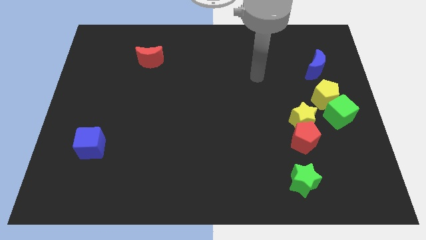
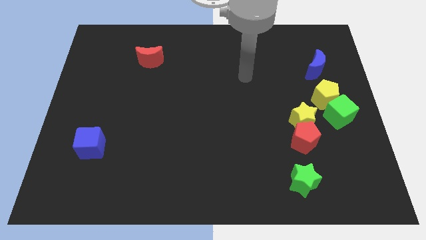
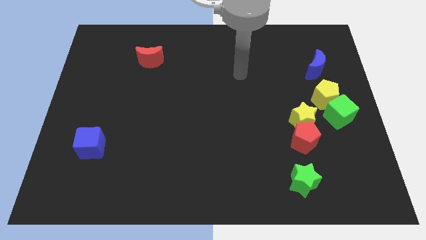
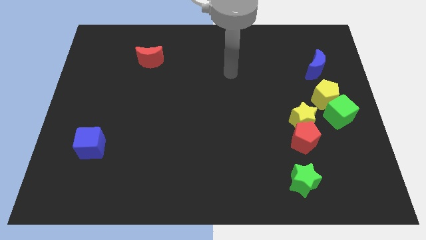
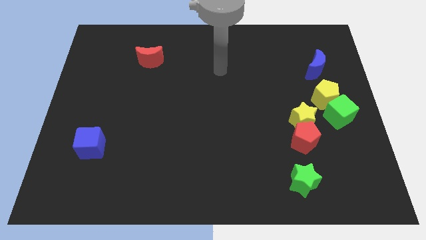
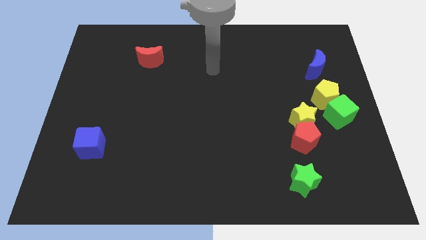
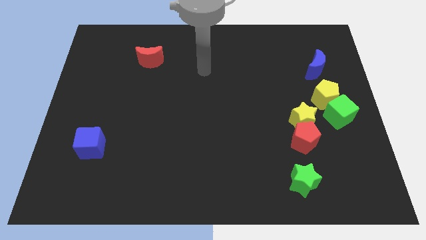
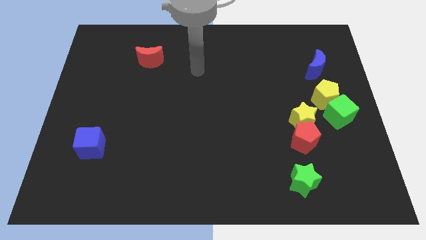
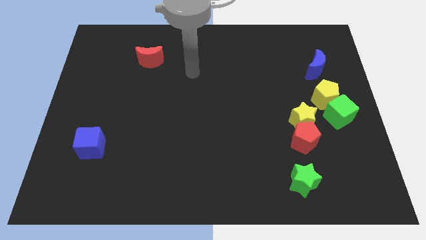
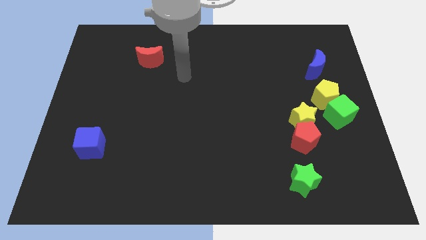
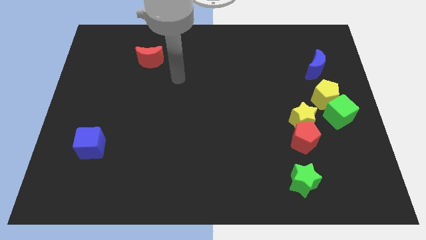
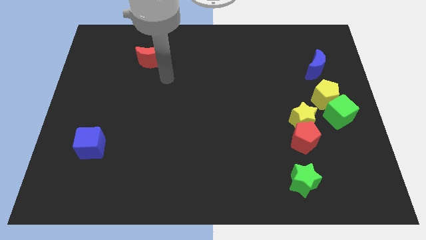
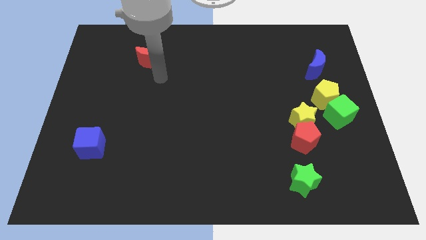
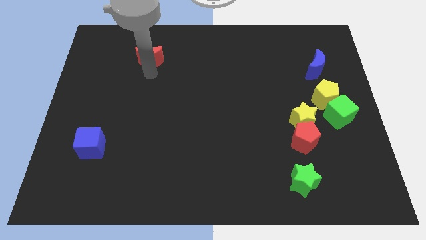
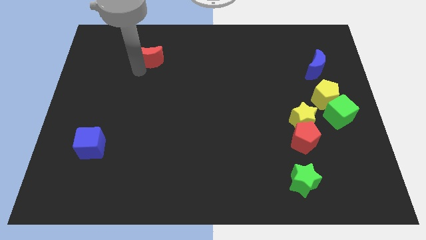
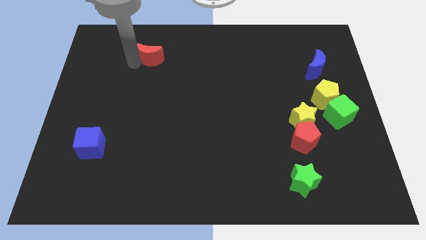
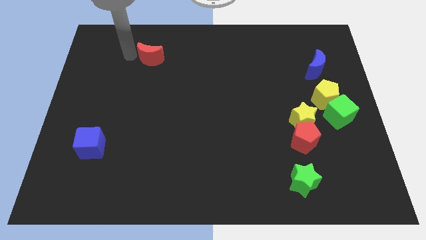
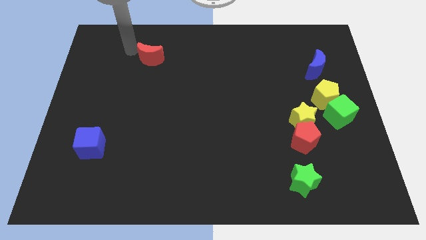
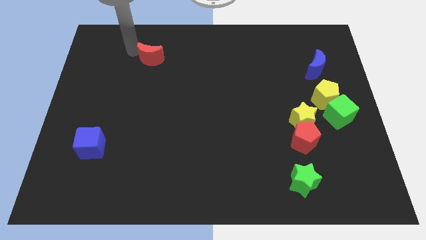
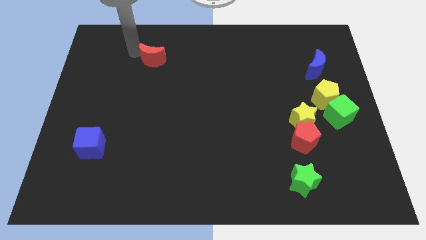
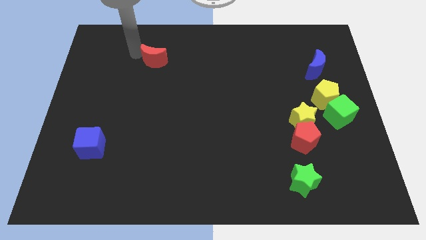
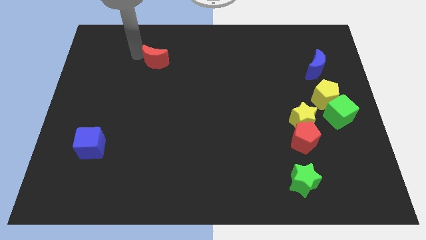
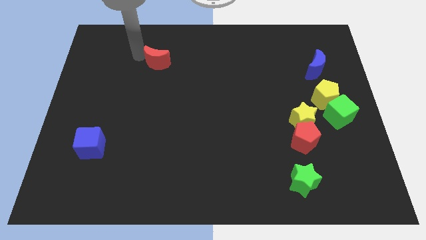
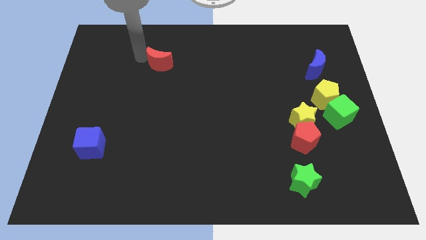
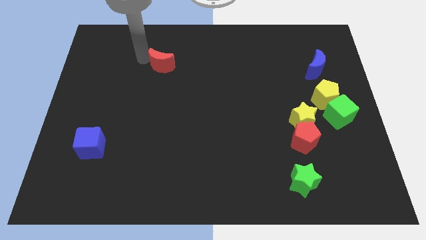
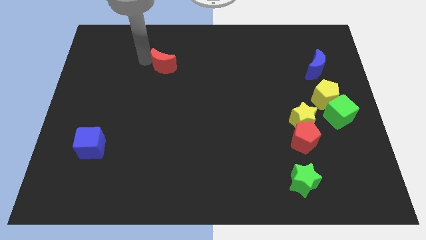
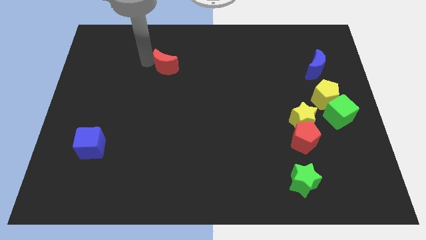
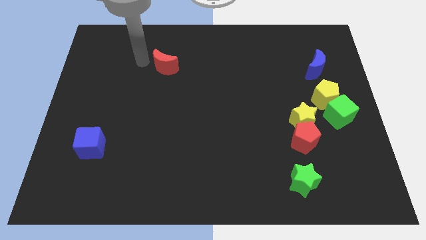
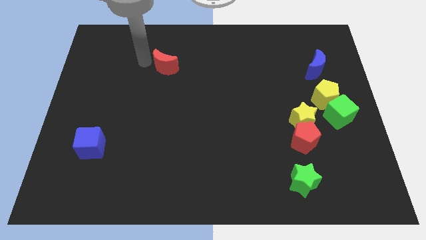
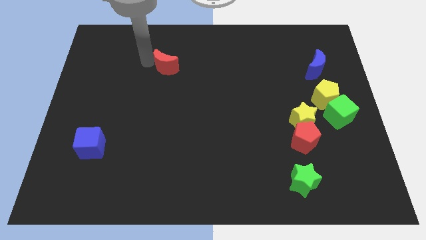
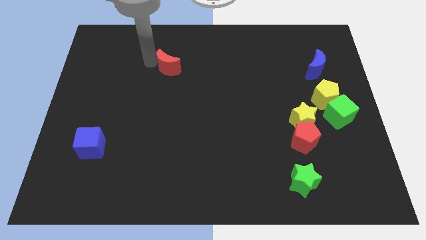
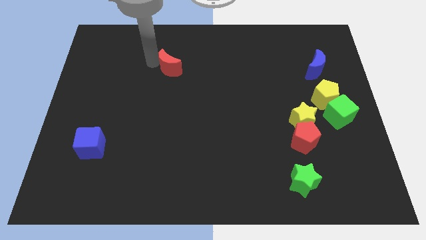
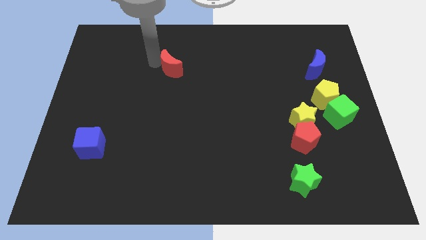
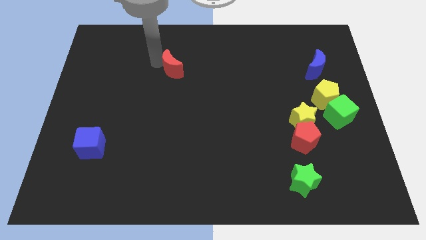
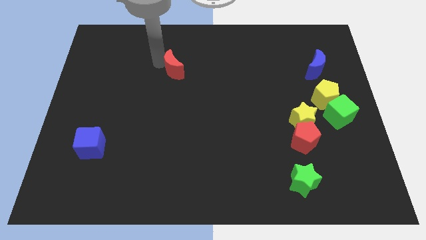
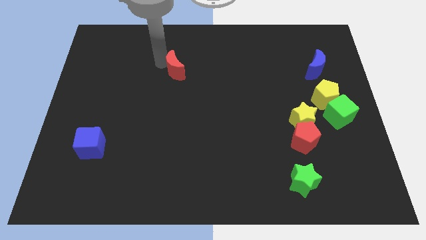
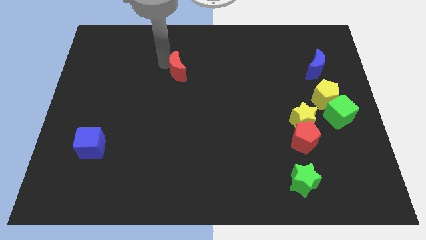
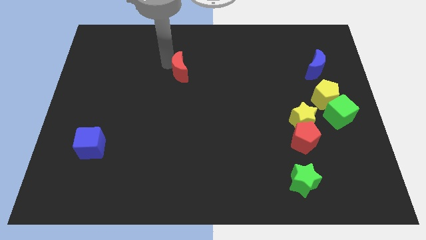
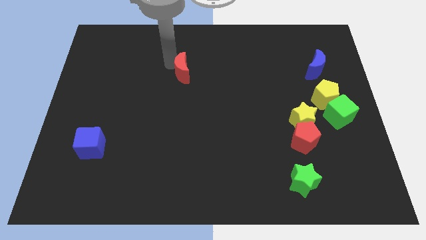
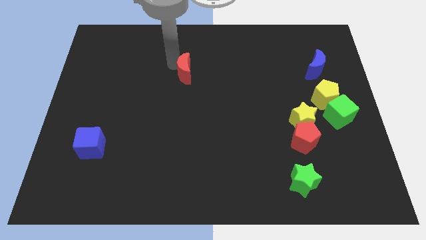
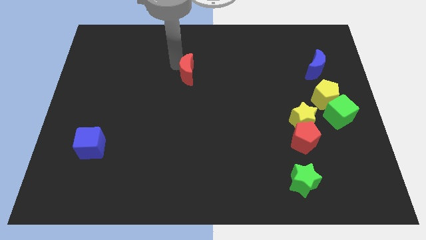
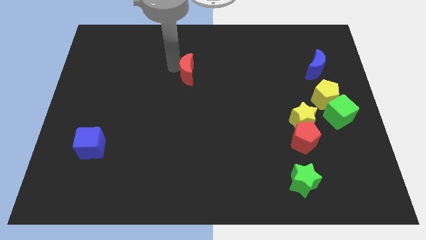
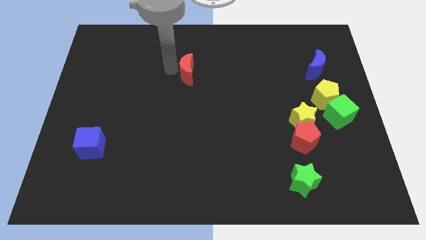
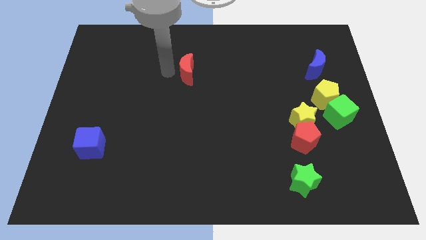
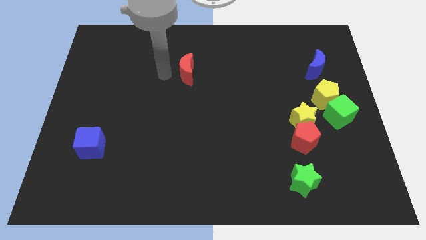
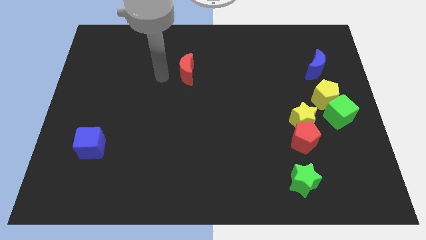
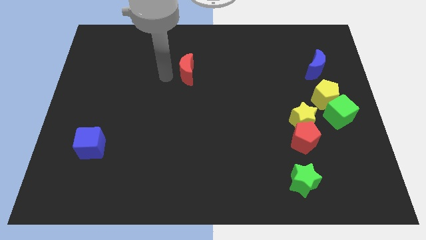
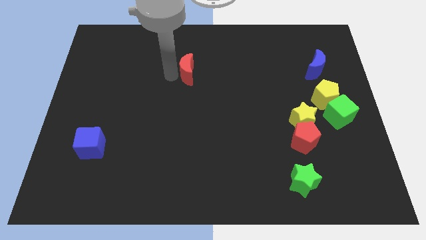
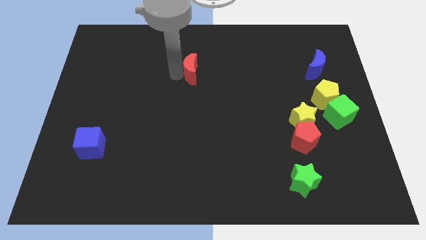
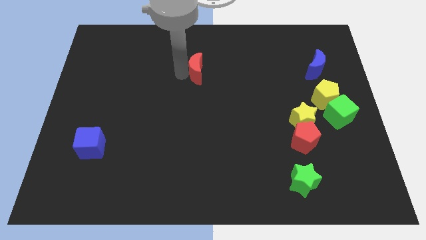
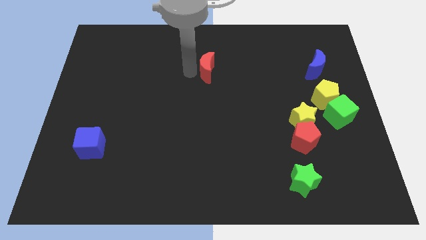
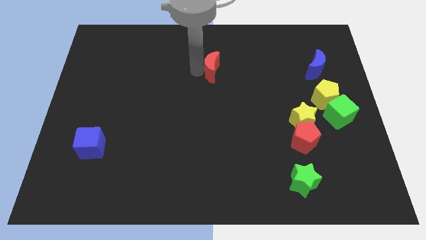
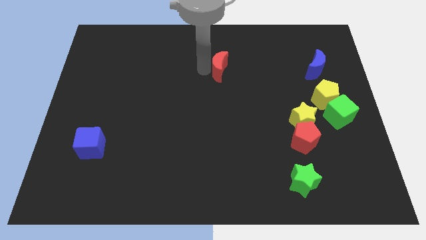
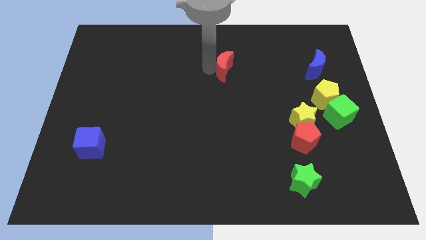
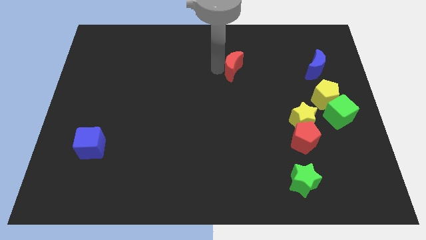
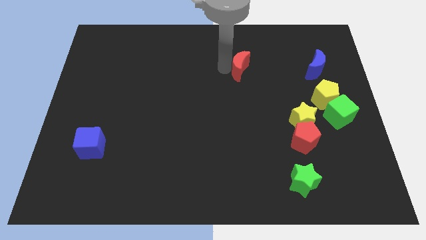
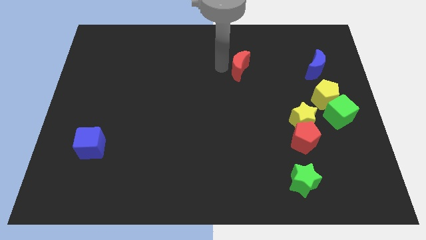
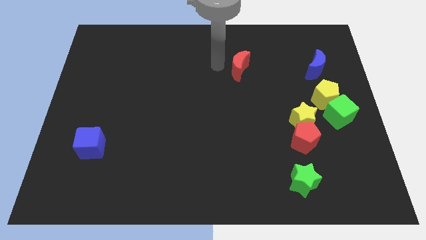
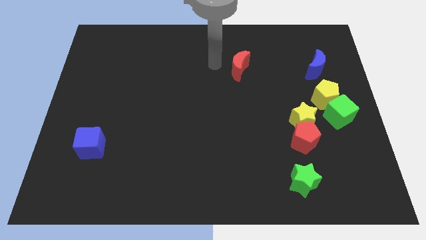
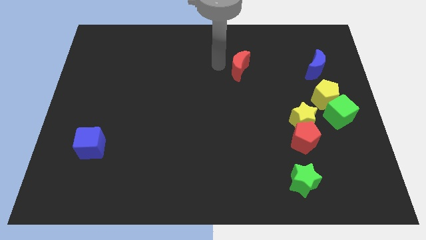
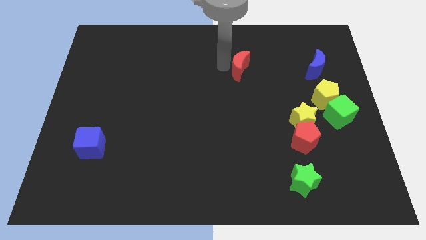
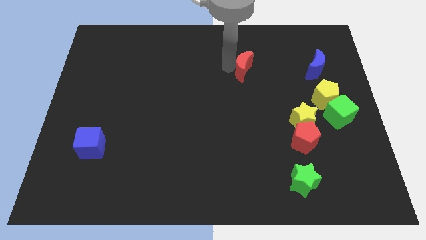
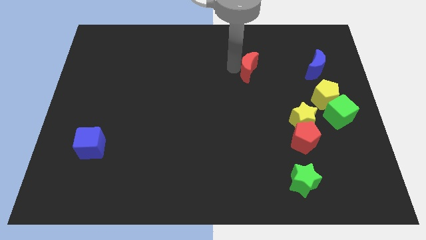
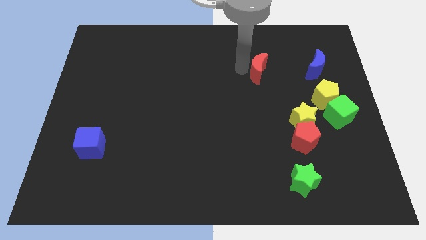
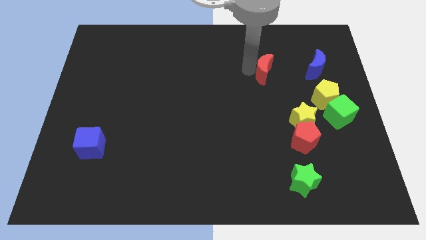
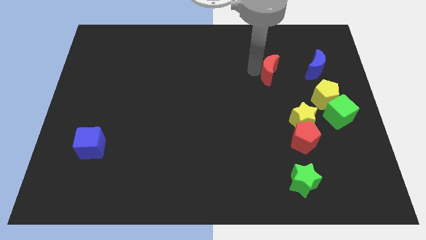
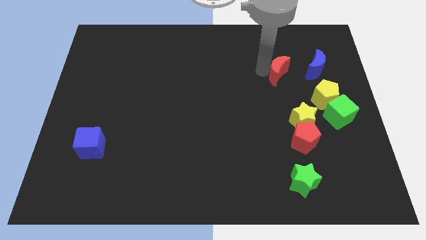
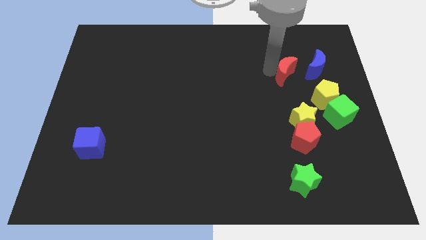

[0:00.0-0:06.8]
push the red moon to the bottom left side of the blue moon

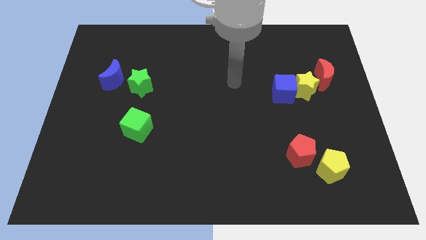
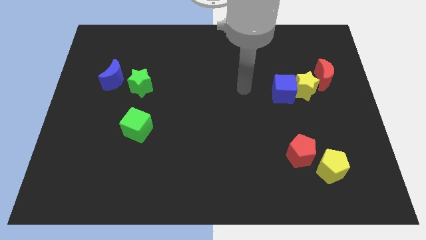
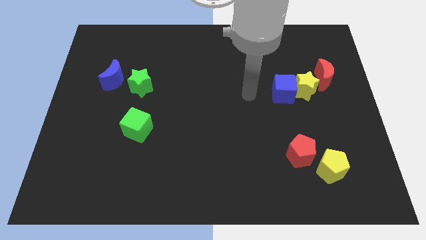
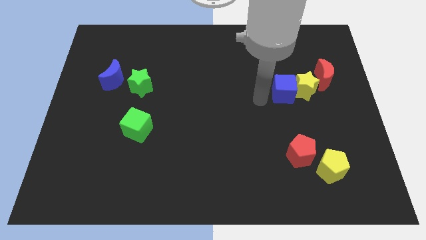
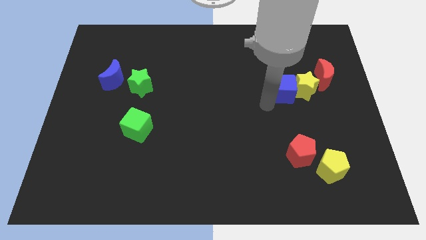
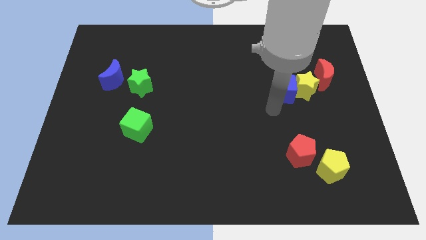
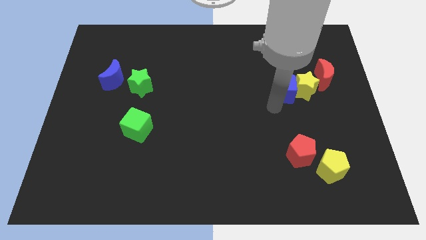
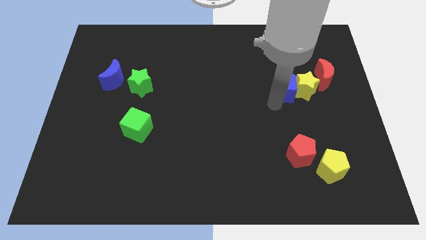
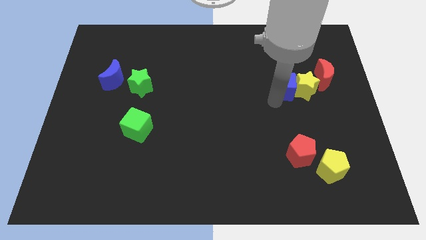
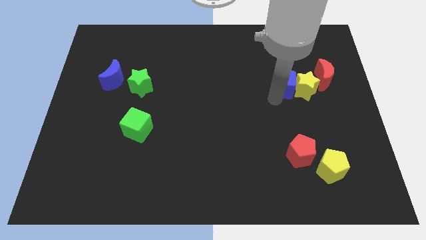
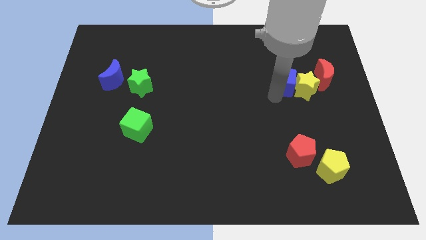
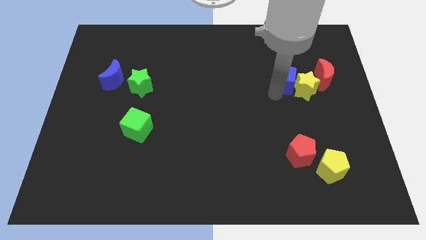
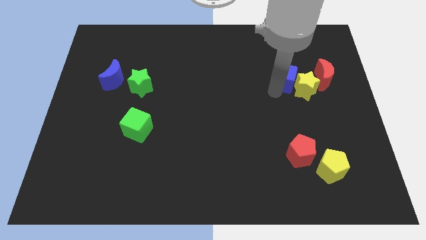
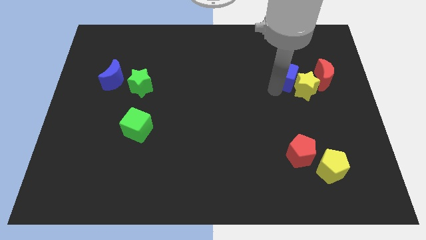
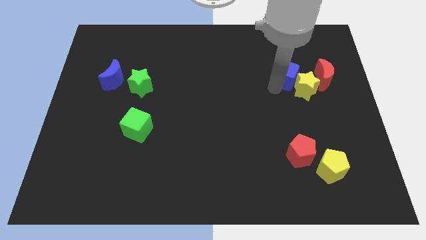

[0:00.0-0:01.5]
move the blue cube to the top side of the yellow star
